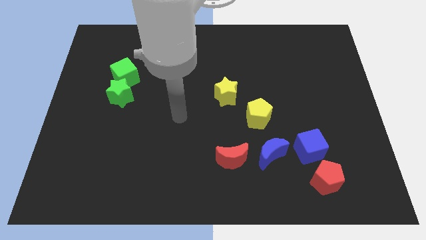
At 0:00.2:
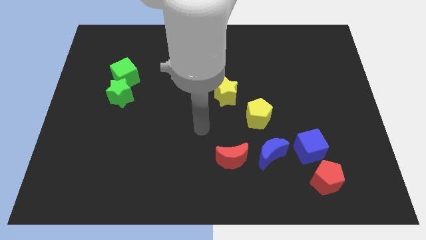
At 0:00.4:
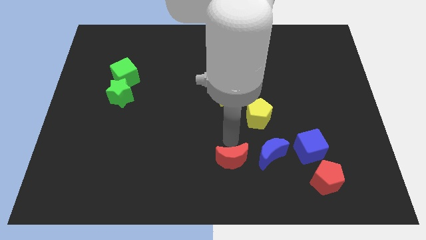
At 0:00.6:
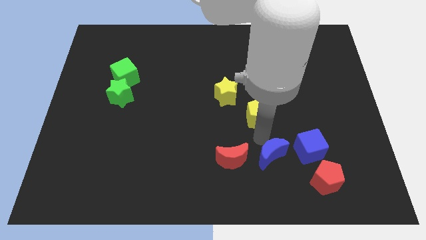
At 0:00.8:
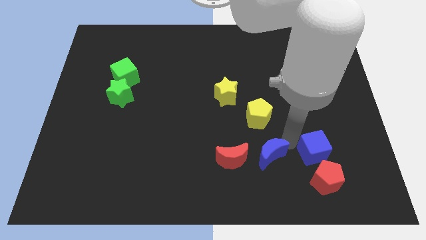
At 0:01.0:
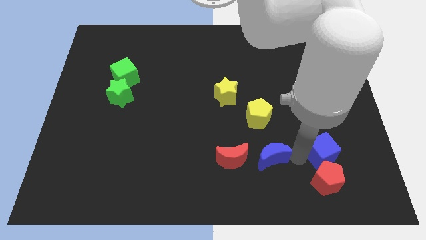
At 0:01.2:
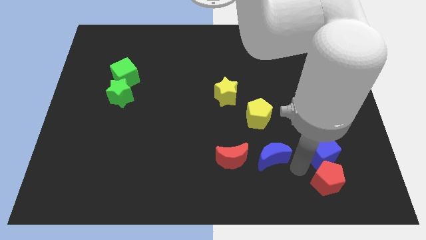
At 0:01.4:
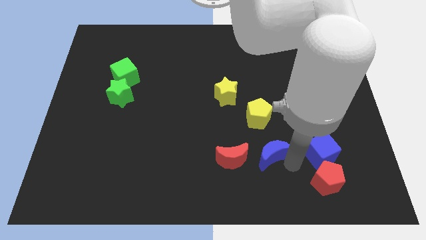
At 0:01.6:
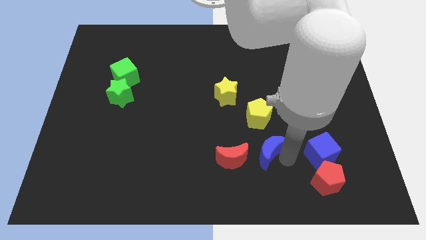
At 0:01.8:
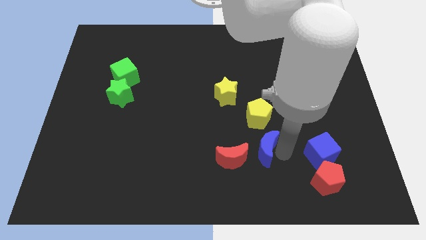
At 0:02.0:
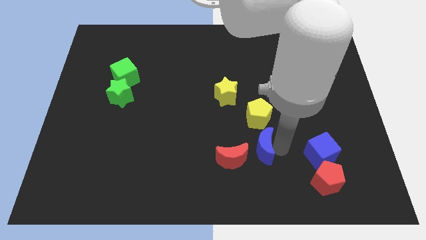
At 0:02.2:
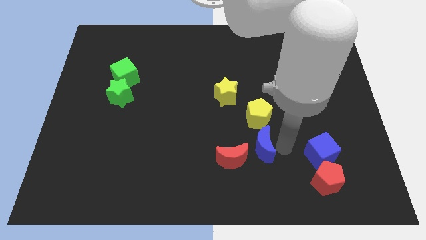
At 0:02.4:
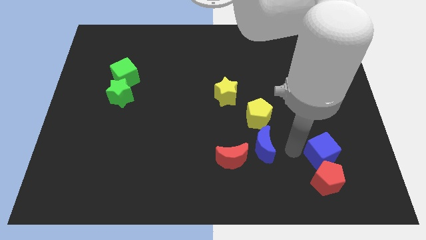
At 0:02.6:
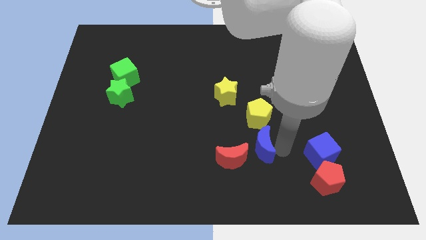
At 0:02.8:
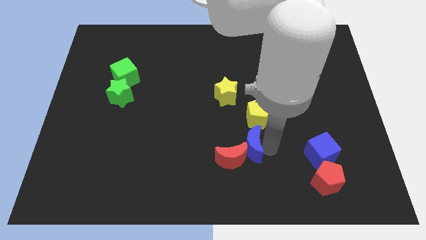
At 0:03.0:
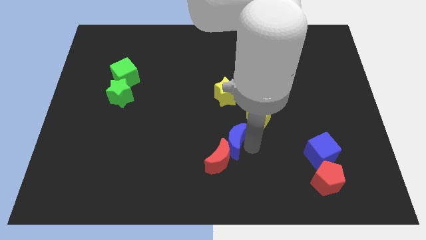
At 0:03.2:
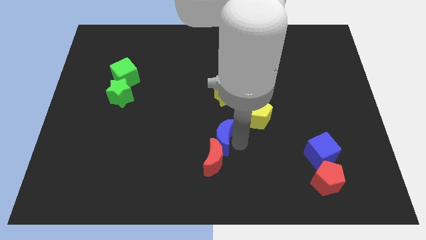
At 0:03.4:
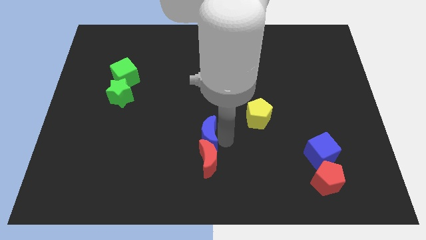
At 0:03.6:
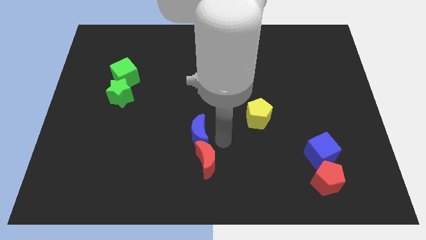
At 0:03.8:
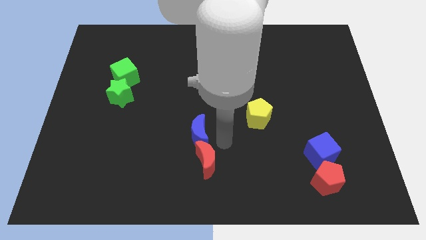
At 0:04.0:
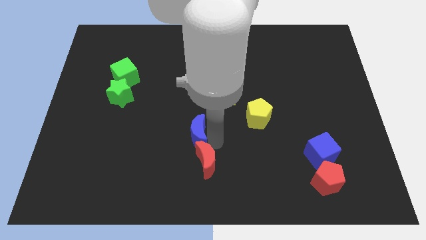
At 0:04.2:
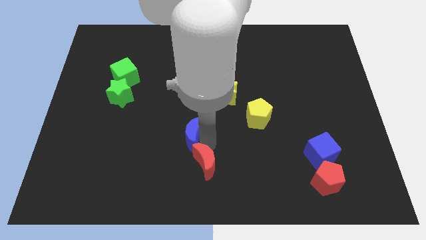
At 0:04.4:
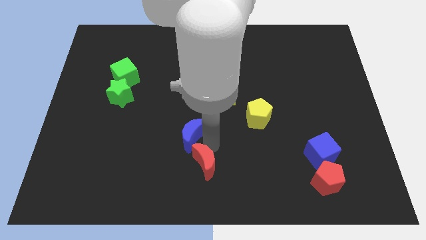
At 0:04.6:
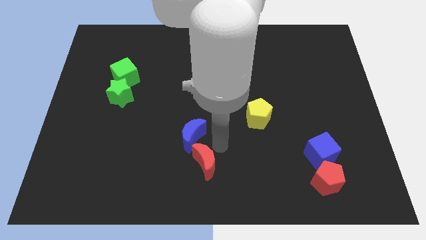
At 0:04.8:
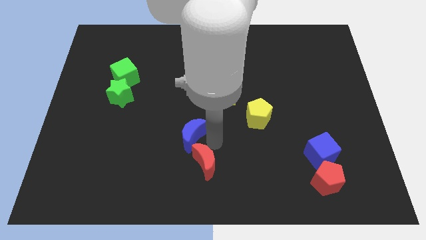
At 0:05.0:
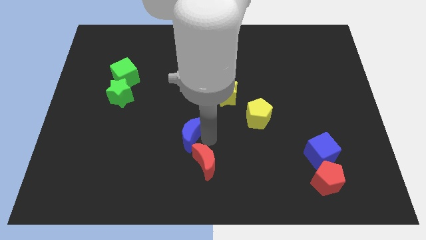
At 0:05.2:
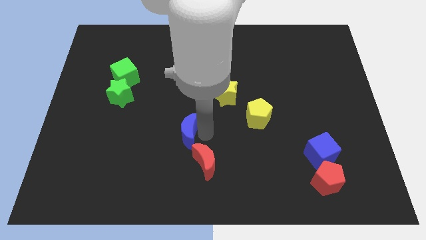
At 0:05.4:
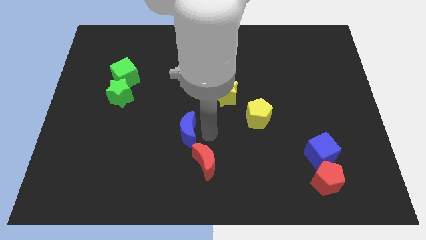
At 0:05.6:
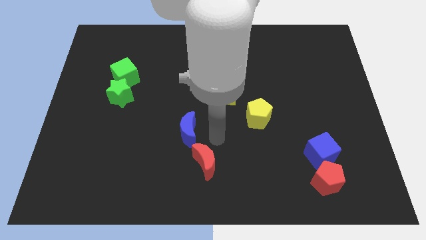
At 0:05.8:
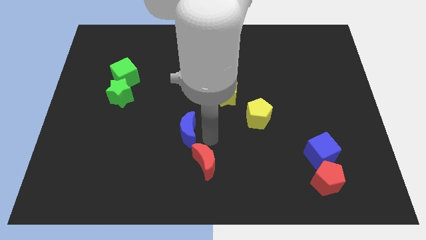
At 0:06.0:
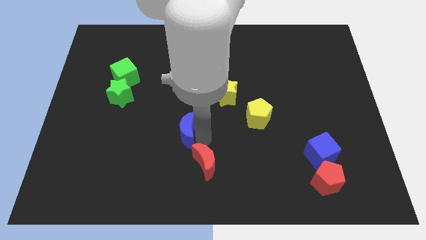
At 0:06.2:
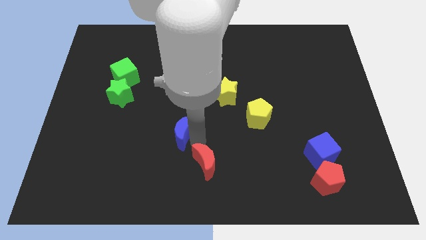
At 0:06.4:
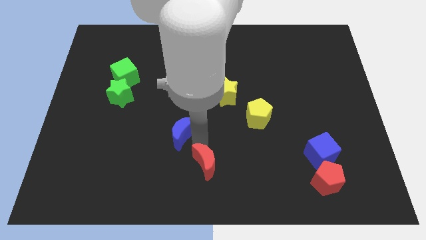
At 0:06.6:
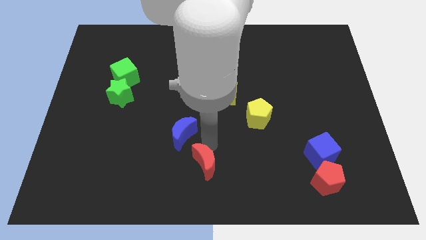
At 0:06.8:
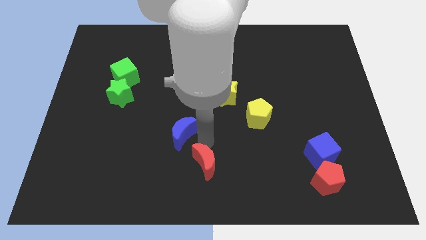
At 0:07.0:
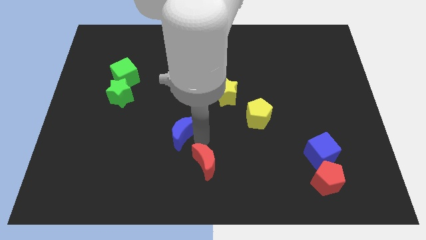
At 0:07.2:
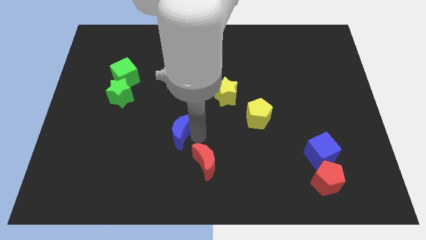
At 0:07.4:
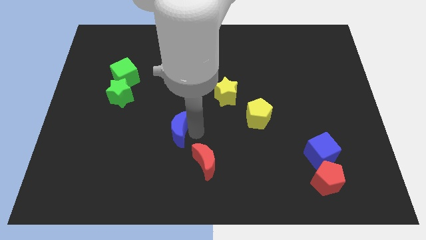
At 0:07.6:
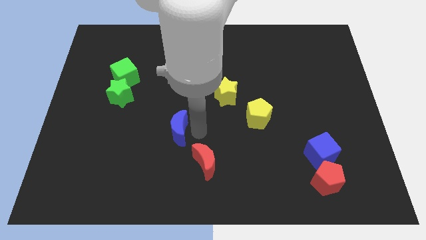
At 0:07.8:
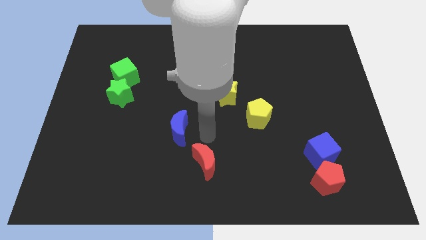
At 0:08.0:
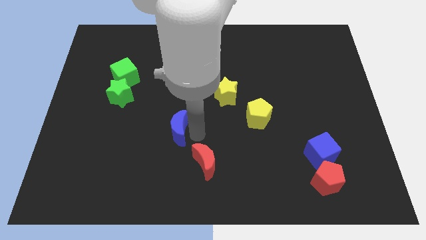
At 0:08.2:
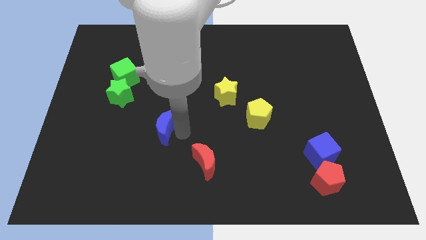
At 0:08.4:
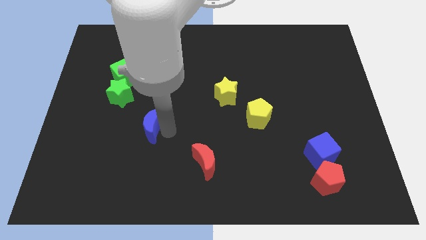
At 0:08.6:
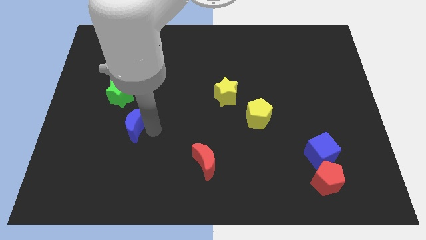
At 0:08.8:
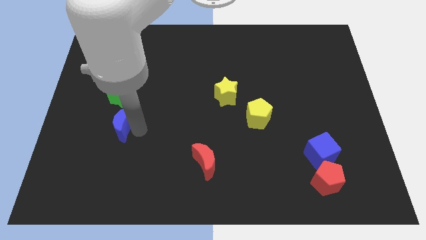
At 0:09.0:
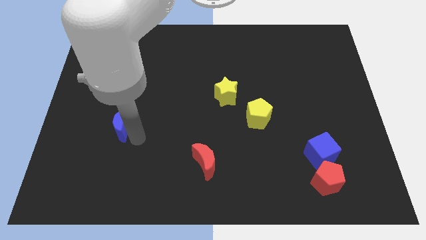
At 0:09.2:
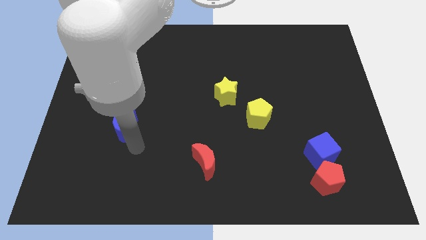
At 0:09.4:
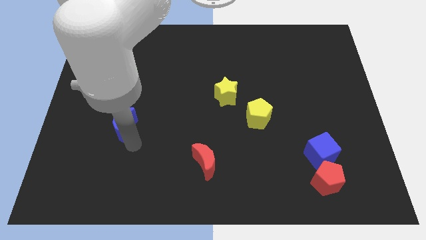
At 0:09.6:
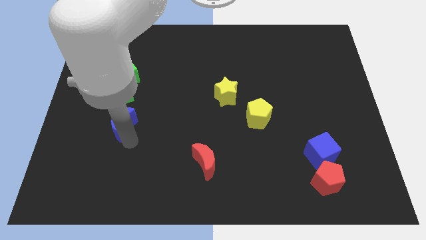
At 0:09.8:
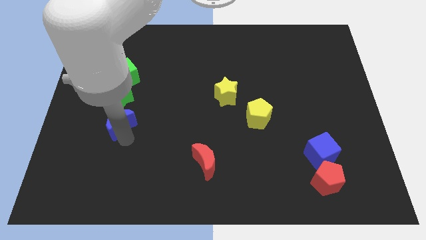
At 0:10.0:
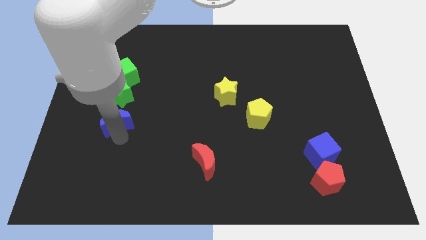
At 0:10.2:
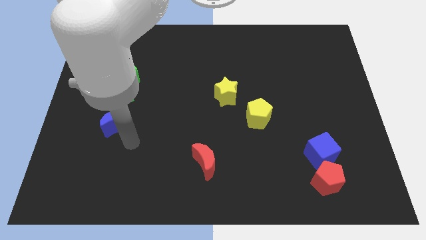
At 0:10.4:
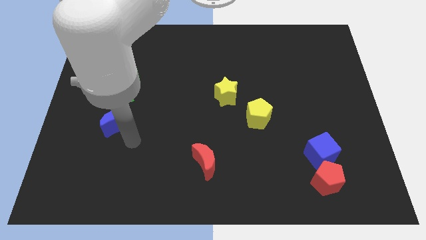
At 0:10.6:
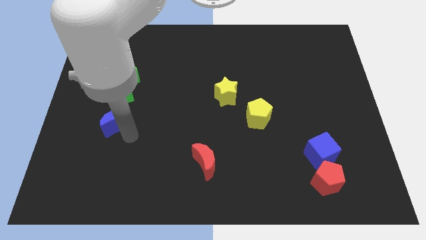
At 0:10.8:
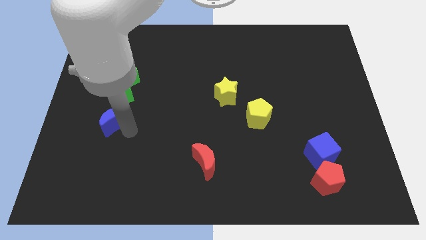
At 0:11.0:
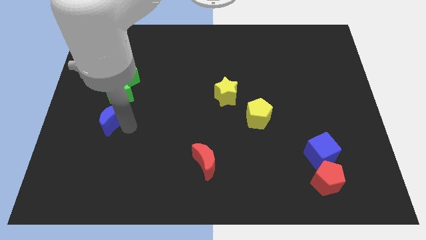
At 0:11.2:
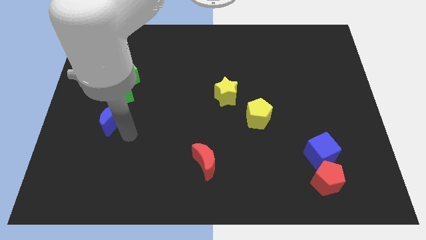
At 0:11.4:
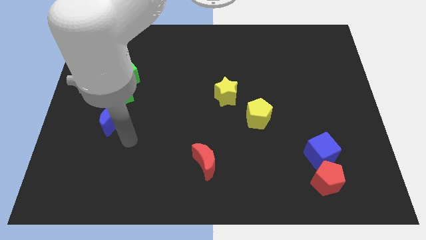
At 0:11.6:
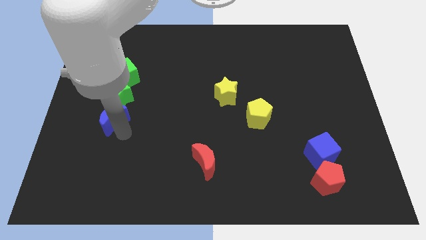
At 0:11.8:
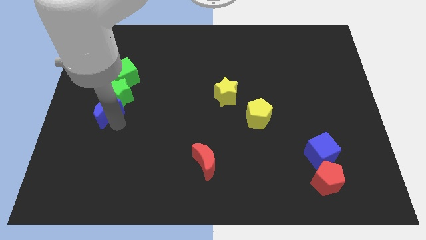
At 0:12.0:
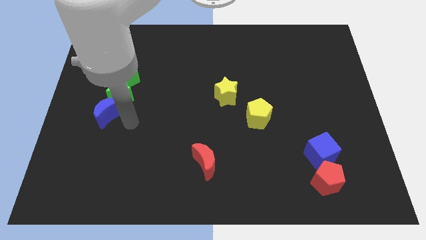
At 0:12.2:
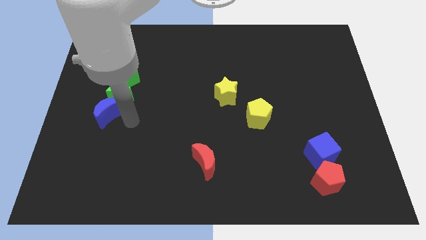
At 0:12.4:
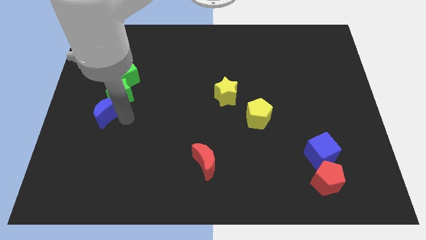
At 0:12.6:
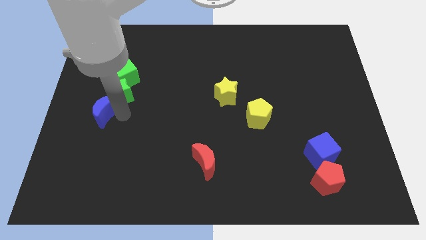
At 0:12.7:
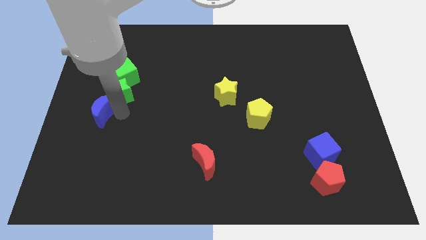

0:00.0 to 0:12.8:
move the blue moon to the left side
